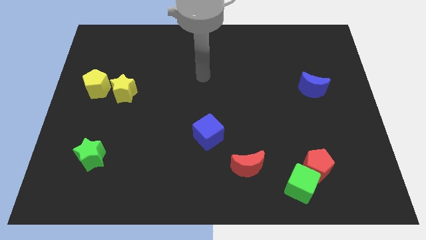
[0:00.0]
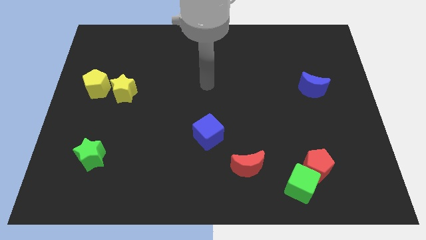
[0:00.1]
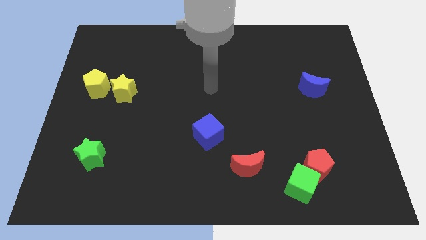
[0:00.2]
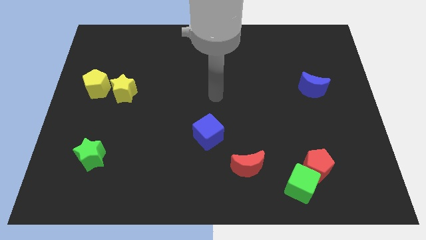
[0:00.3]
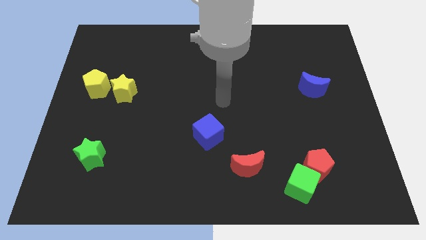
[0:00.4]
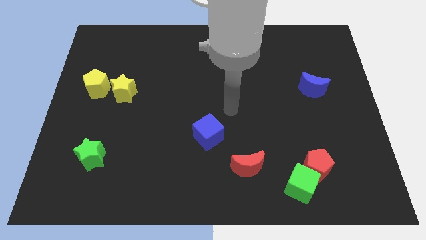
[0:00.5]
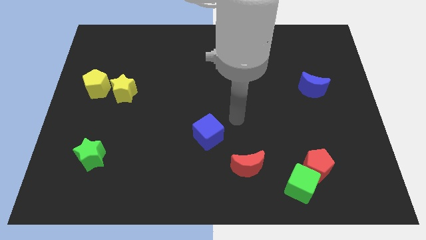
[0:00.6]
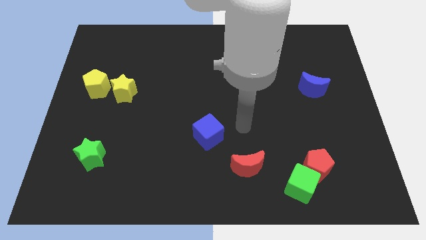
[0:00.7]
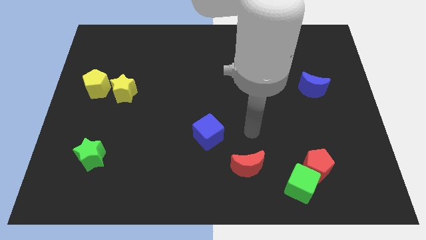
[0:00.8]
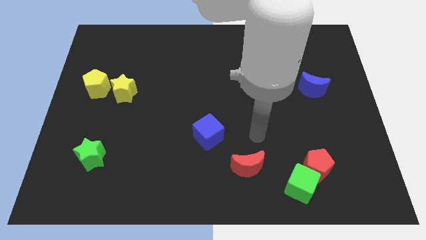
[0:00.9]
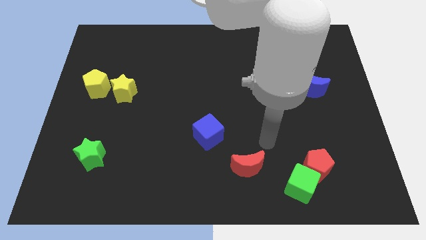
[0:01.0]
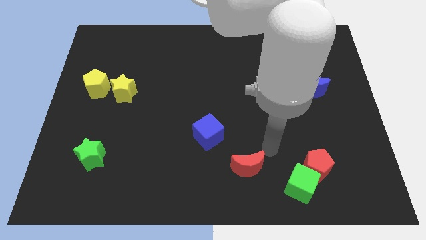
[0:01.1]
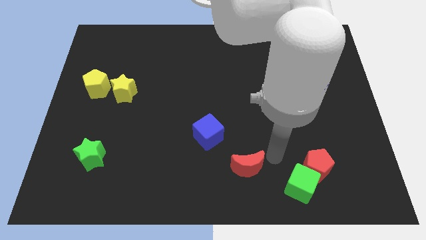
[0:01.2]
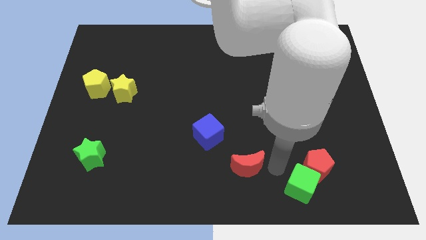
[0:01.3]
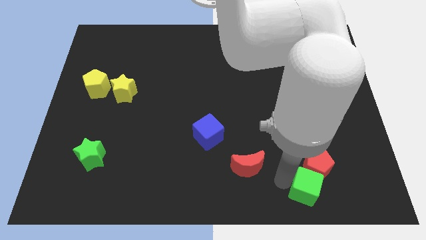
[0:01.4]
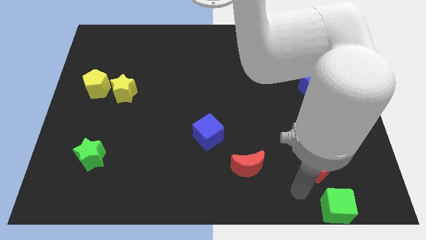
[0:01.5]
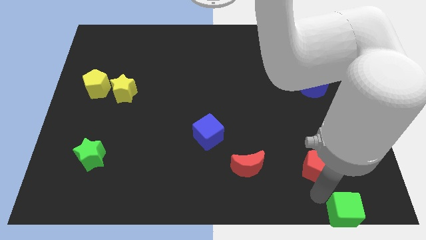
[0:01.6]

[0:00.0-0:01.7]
separate the red pentagon from the green cube

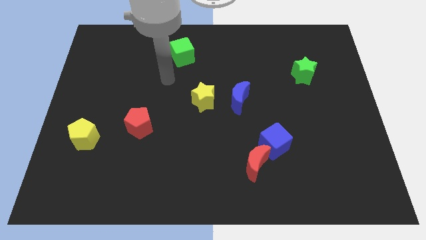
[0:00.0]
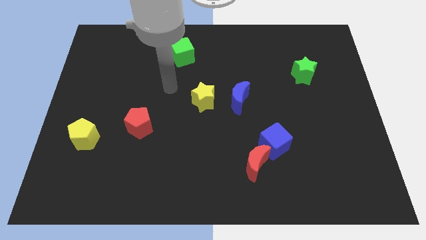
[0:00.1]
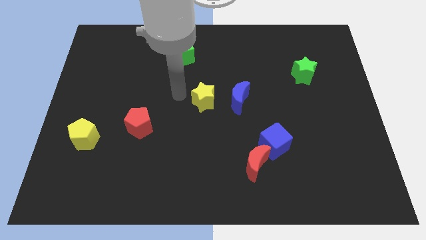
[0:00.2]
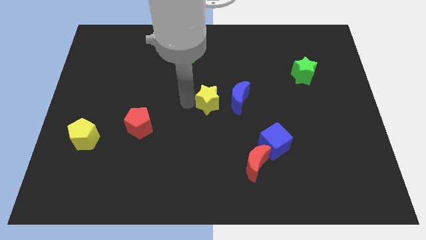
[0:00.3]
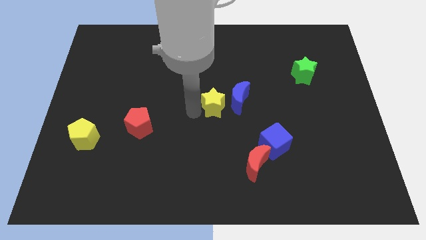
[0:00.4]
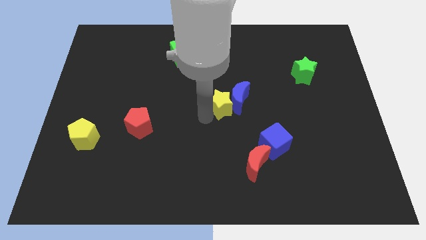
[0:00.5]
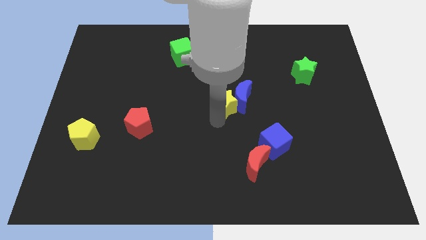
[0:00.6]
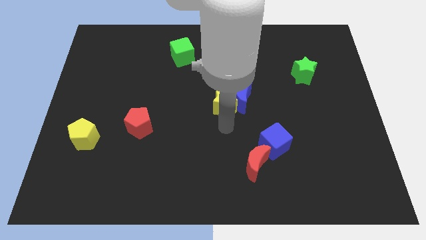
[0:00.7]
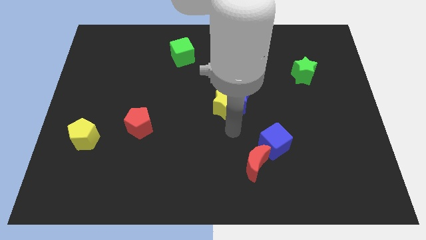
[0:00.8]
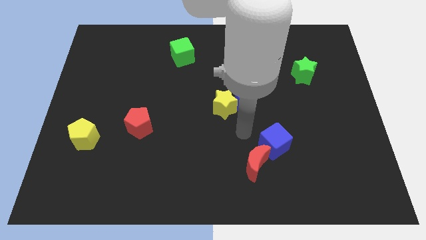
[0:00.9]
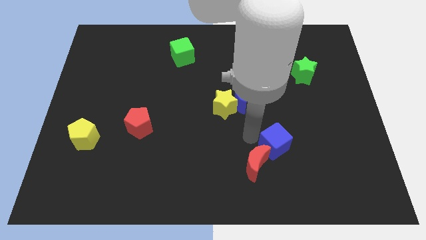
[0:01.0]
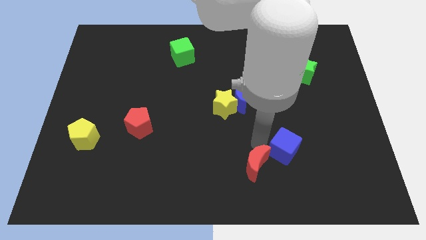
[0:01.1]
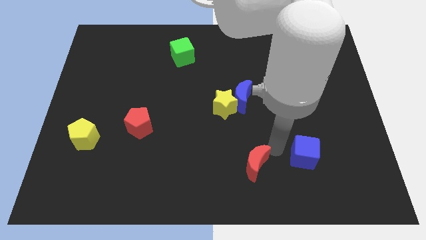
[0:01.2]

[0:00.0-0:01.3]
separate the red moon from the blue cube

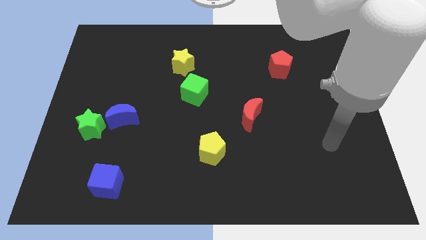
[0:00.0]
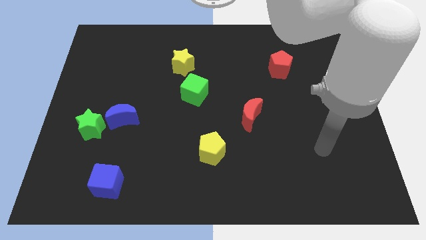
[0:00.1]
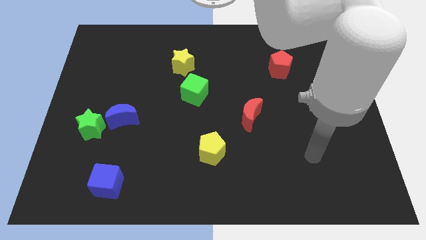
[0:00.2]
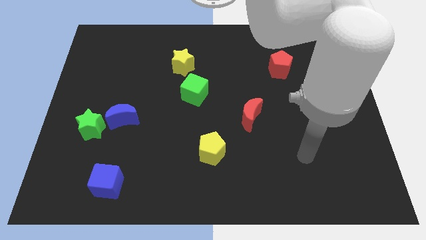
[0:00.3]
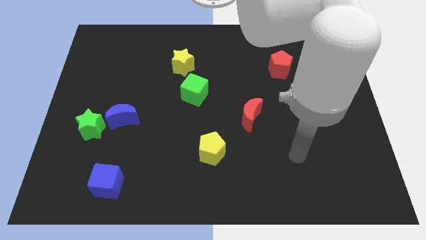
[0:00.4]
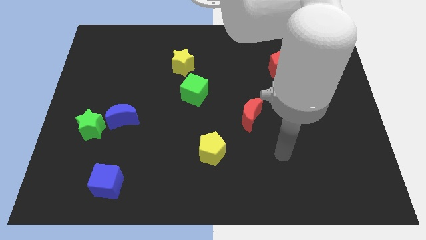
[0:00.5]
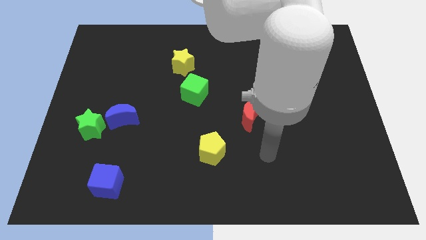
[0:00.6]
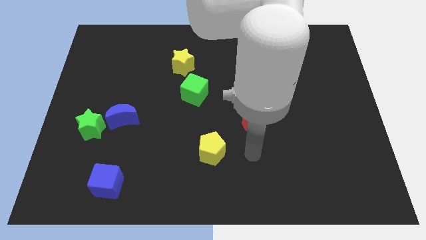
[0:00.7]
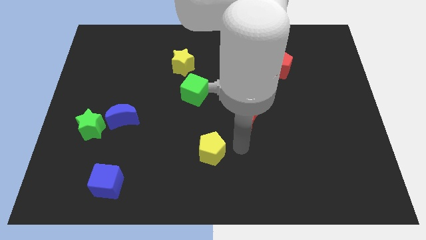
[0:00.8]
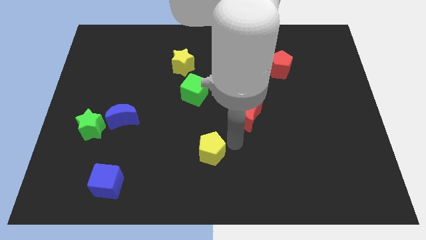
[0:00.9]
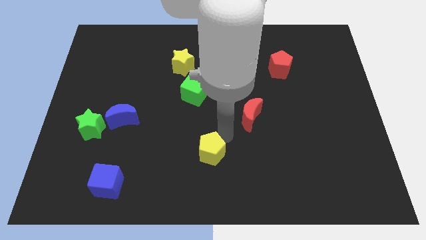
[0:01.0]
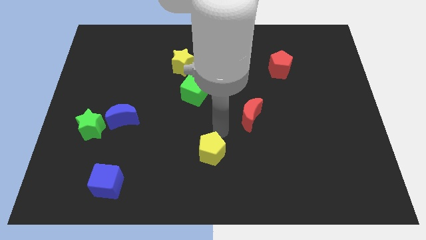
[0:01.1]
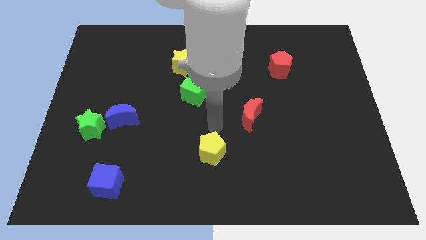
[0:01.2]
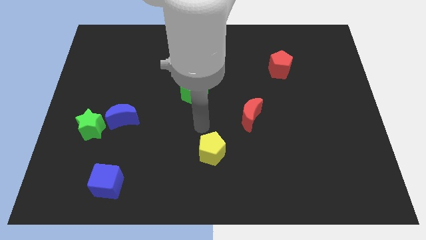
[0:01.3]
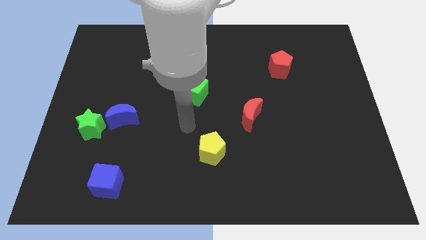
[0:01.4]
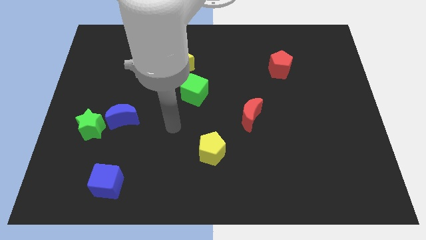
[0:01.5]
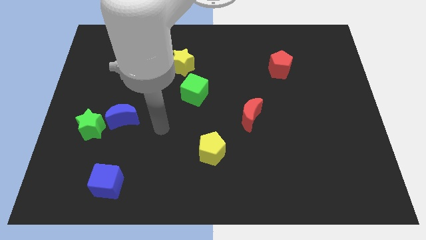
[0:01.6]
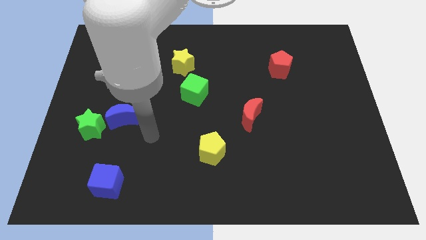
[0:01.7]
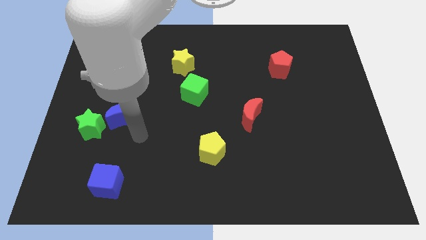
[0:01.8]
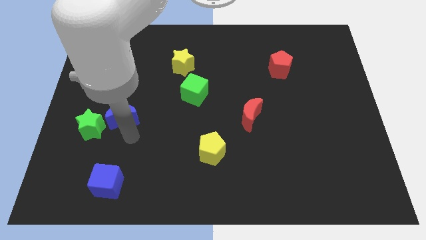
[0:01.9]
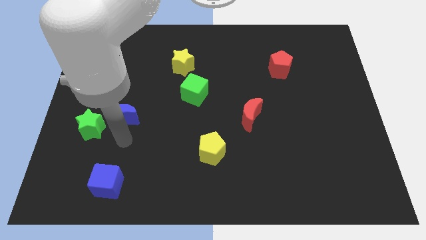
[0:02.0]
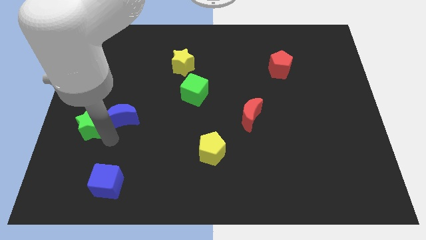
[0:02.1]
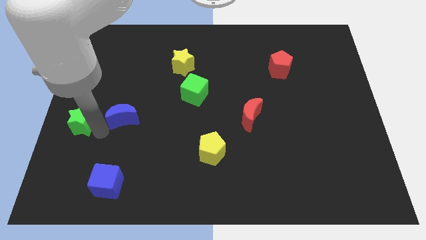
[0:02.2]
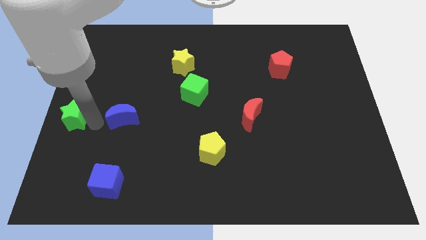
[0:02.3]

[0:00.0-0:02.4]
separate the blue moon from the green star

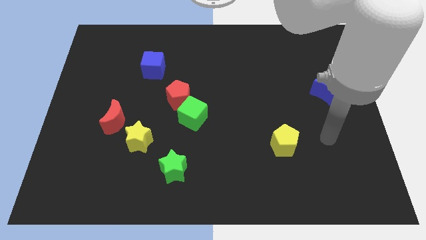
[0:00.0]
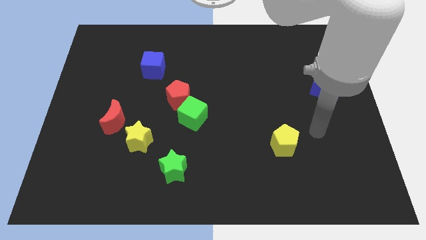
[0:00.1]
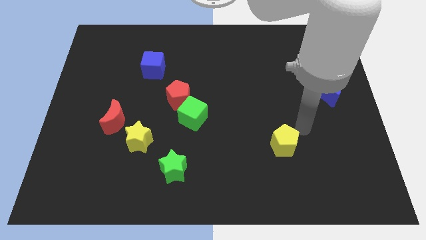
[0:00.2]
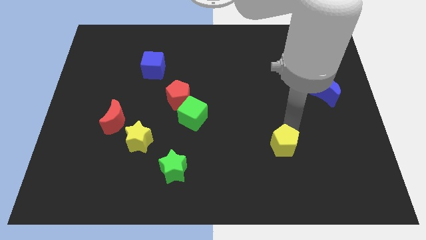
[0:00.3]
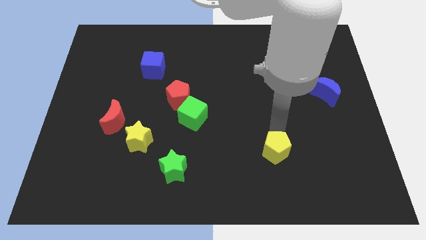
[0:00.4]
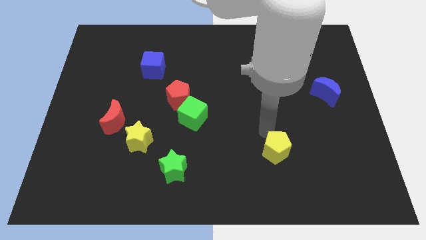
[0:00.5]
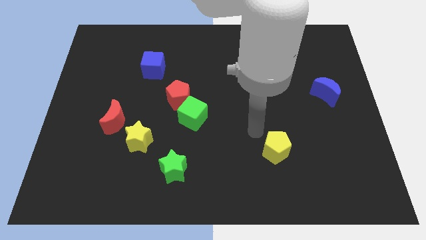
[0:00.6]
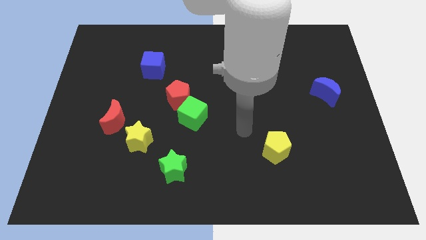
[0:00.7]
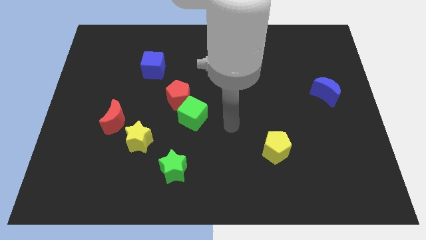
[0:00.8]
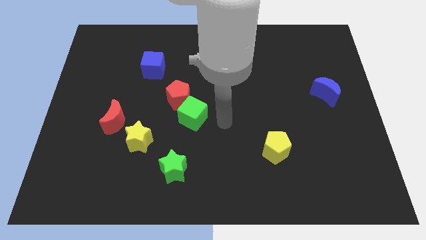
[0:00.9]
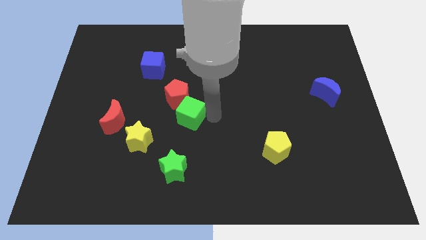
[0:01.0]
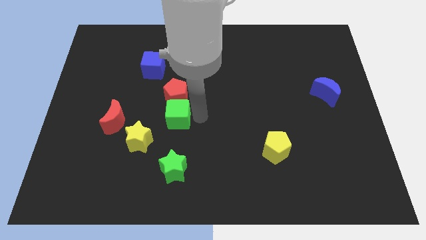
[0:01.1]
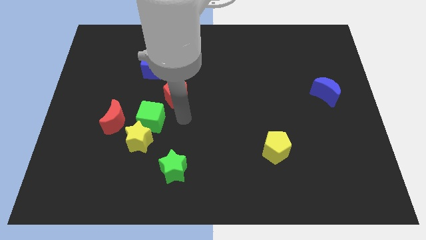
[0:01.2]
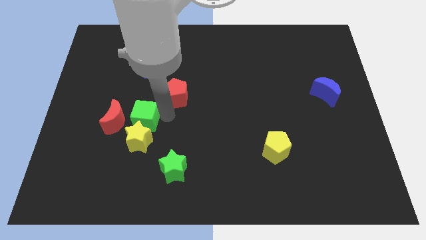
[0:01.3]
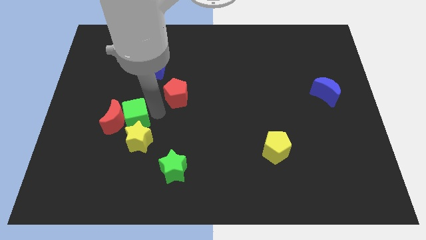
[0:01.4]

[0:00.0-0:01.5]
move the red pentagon away from the green cube

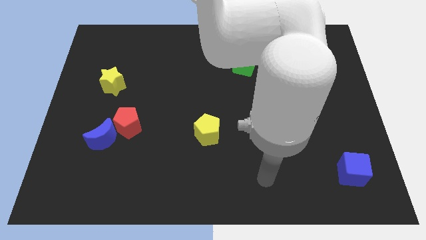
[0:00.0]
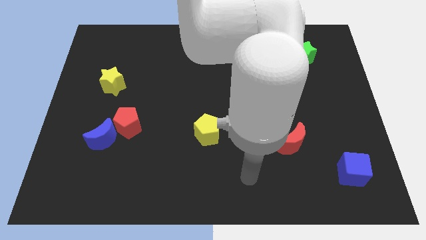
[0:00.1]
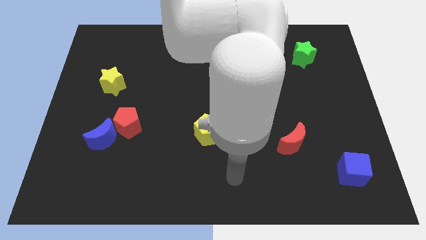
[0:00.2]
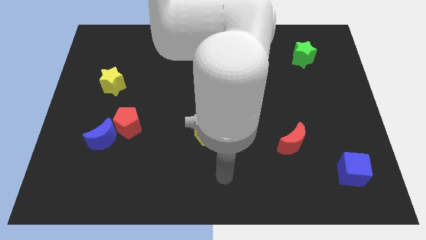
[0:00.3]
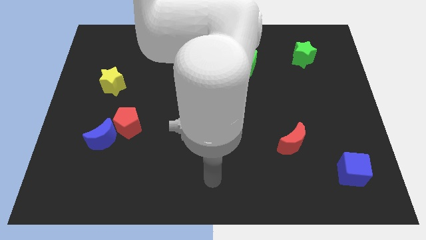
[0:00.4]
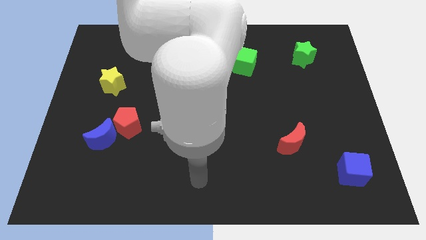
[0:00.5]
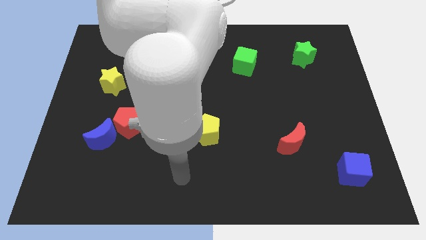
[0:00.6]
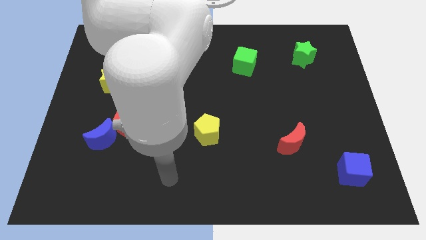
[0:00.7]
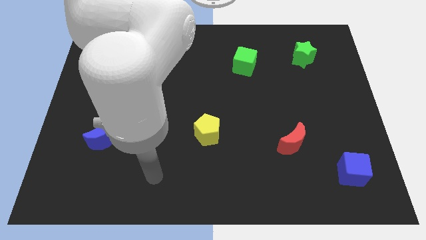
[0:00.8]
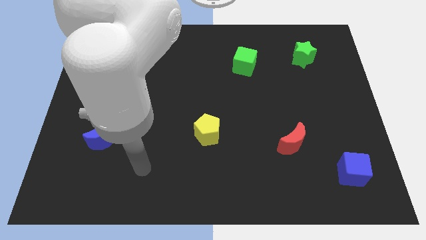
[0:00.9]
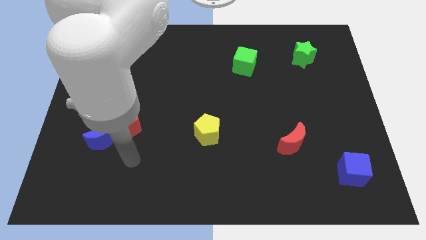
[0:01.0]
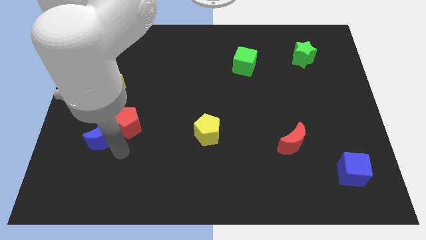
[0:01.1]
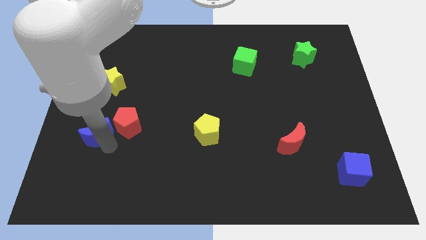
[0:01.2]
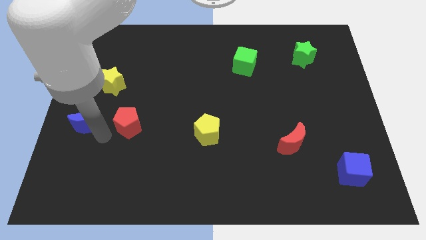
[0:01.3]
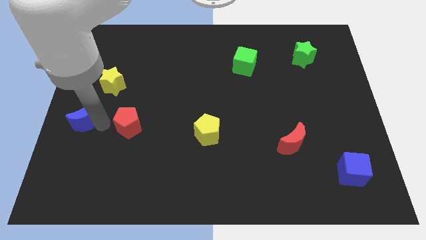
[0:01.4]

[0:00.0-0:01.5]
separate the red pentagon from the blue moon

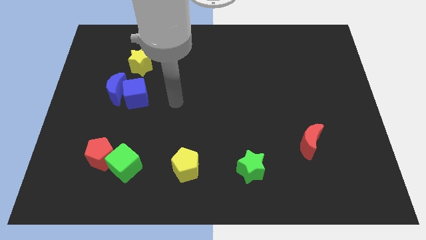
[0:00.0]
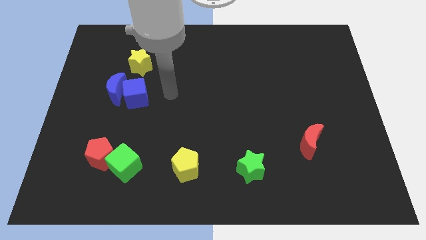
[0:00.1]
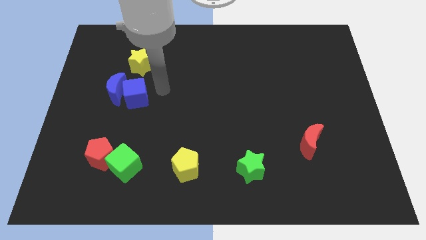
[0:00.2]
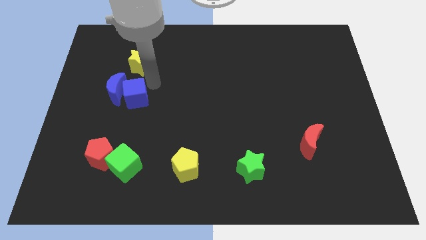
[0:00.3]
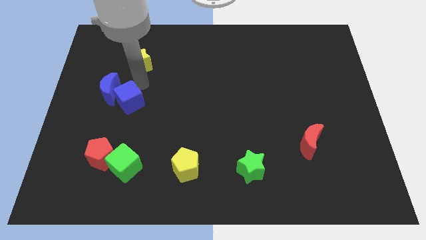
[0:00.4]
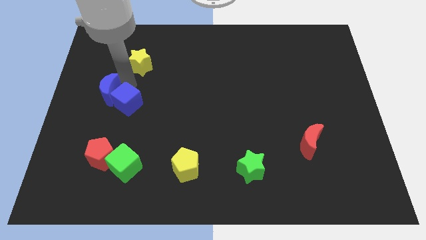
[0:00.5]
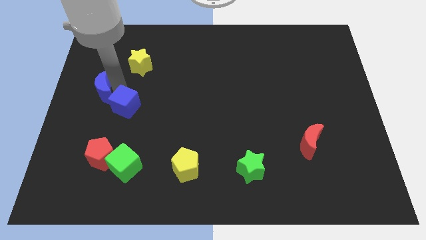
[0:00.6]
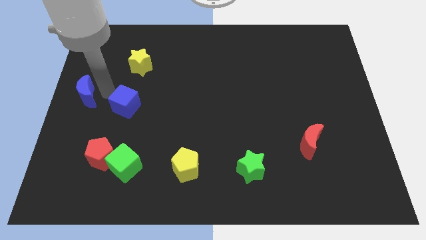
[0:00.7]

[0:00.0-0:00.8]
move the blue cube away from the blue moon
